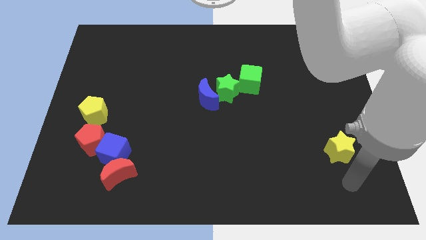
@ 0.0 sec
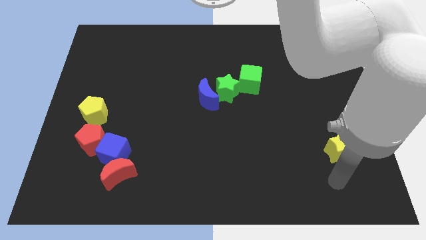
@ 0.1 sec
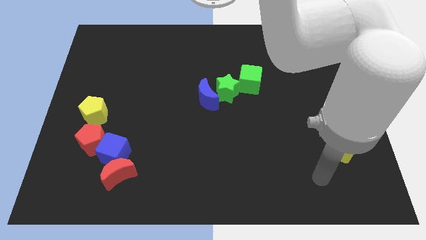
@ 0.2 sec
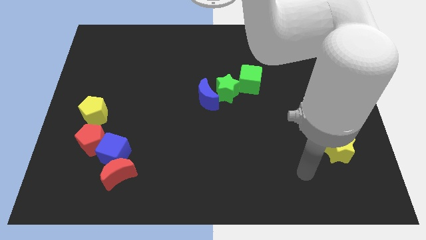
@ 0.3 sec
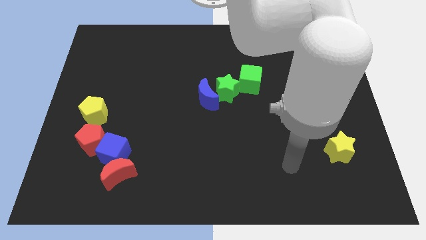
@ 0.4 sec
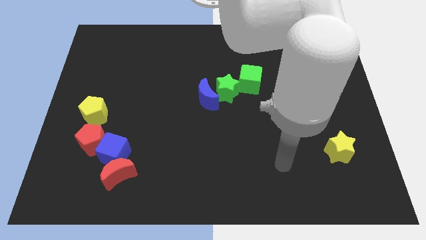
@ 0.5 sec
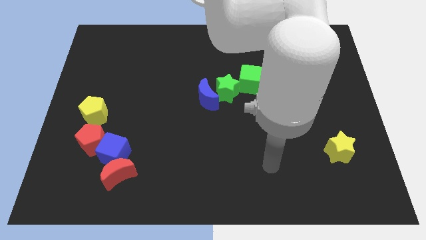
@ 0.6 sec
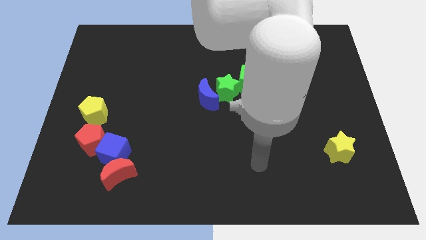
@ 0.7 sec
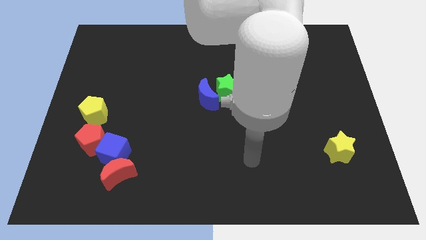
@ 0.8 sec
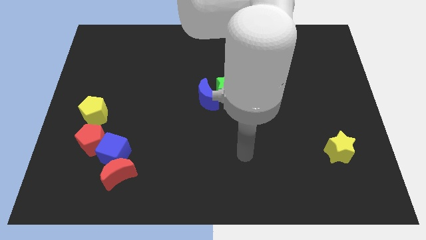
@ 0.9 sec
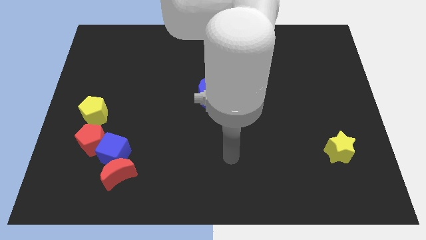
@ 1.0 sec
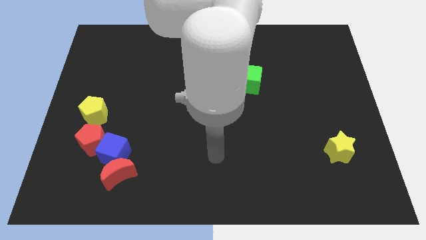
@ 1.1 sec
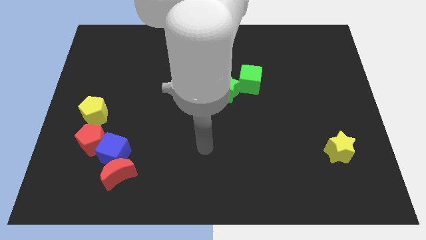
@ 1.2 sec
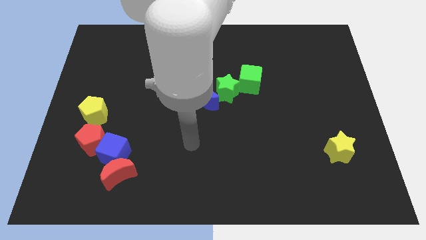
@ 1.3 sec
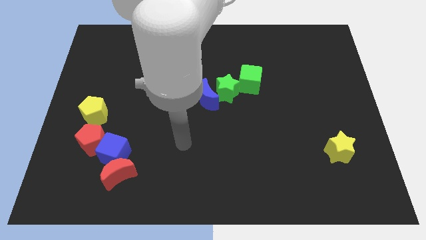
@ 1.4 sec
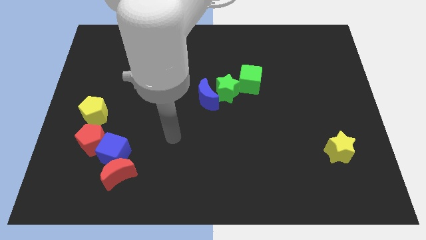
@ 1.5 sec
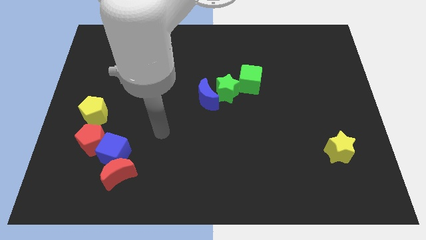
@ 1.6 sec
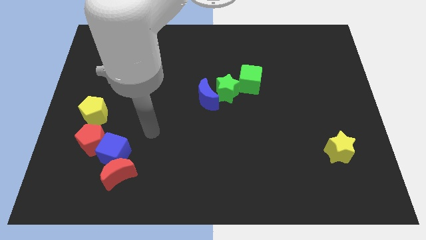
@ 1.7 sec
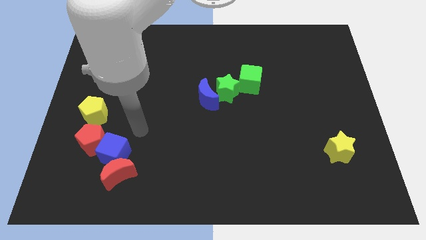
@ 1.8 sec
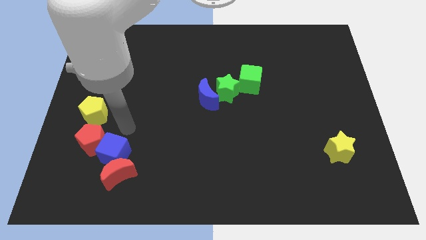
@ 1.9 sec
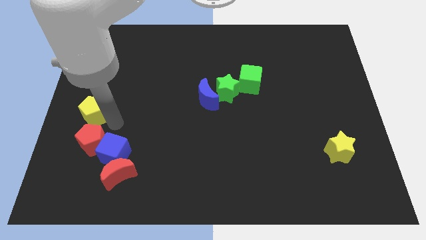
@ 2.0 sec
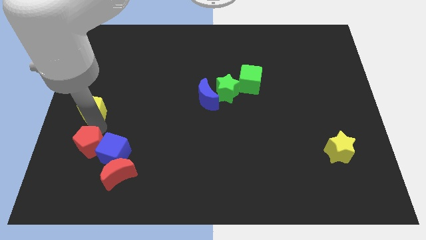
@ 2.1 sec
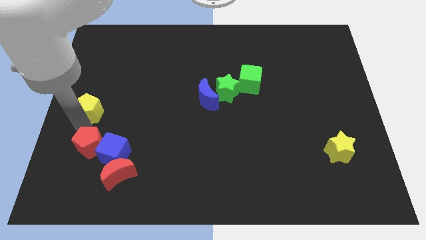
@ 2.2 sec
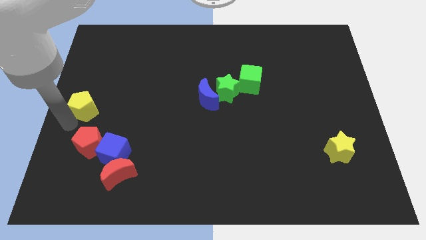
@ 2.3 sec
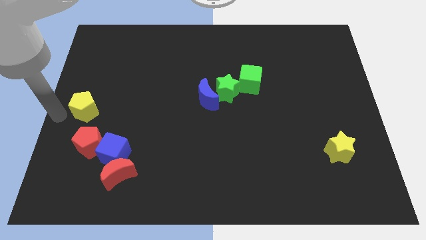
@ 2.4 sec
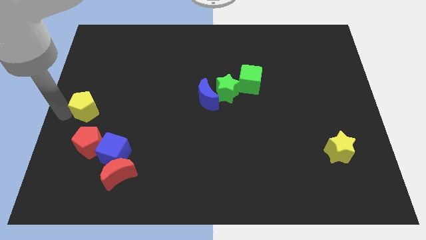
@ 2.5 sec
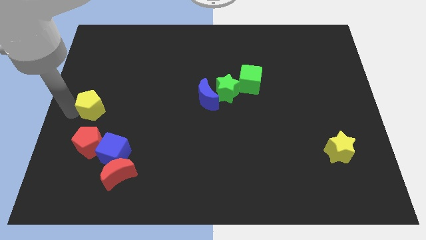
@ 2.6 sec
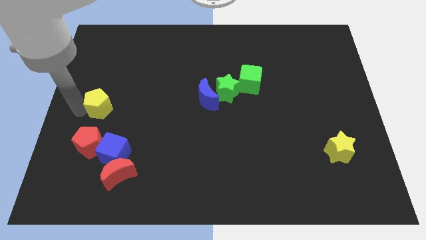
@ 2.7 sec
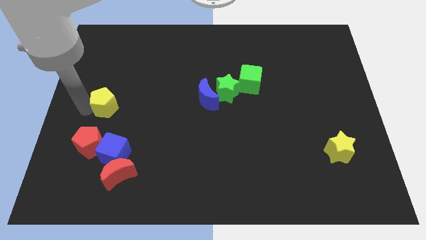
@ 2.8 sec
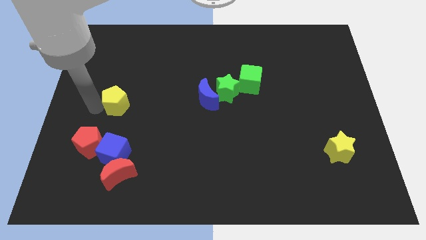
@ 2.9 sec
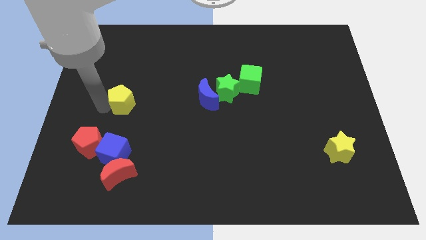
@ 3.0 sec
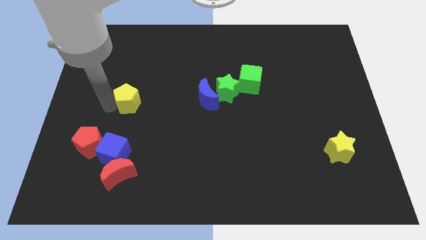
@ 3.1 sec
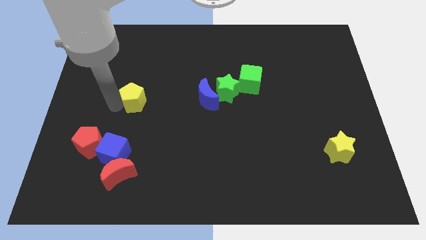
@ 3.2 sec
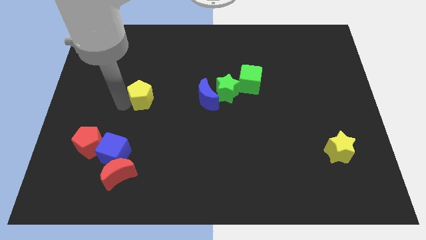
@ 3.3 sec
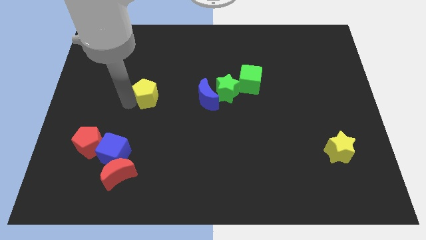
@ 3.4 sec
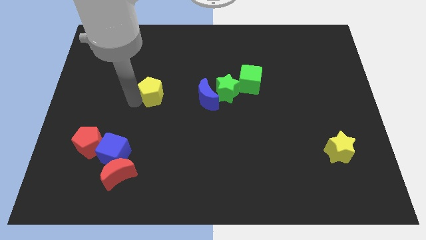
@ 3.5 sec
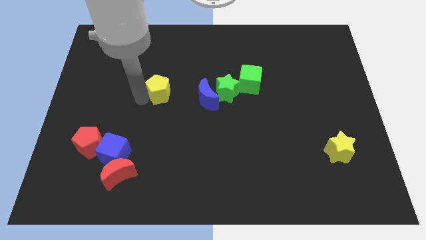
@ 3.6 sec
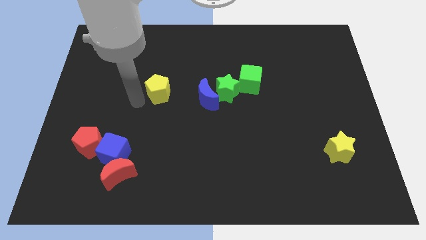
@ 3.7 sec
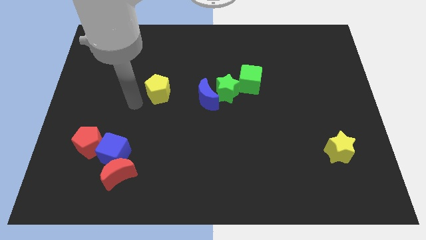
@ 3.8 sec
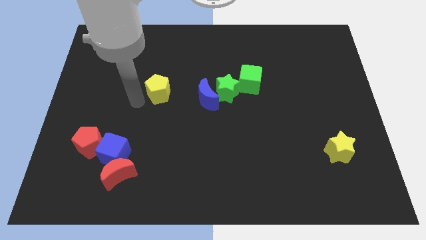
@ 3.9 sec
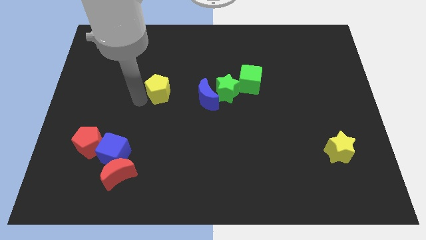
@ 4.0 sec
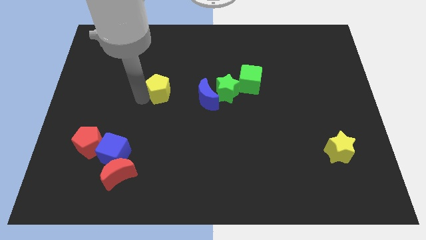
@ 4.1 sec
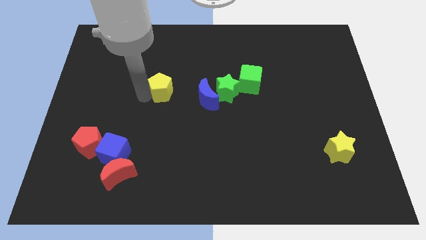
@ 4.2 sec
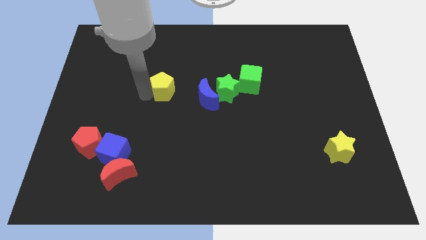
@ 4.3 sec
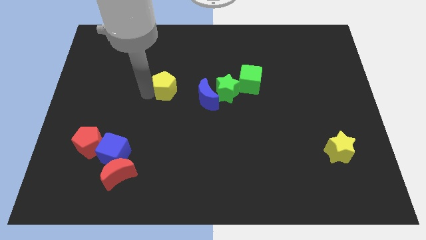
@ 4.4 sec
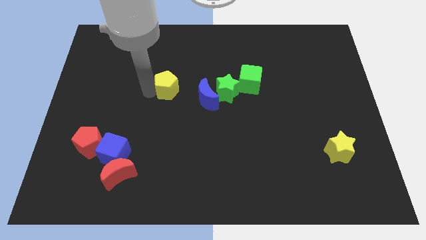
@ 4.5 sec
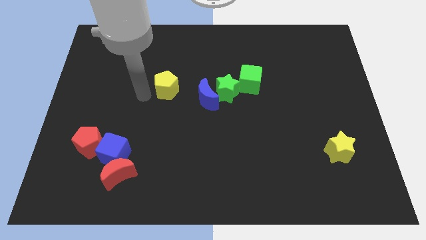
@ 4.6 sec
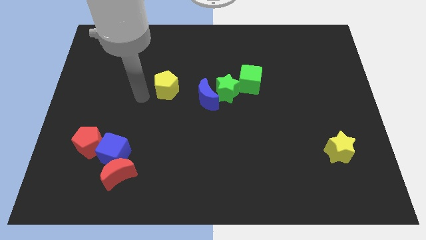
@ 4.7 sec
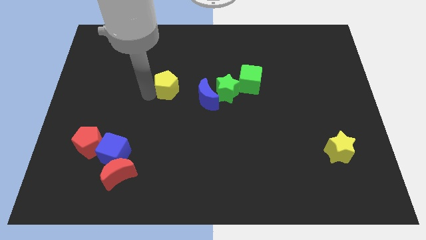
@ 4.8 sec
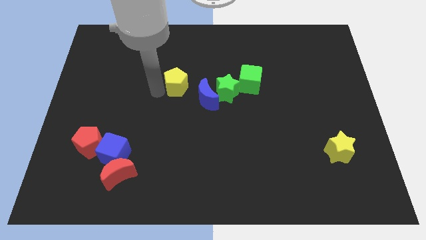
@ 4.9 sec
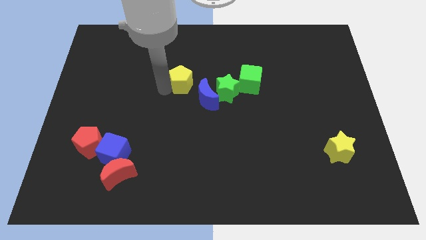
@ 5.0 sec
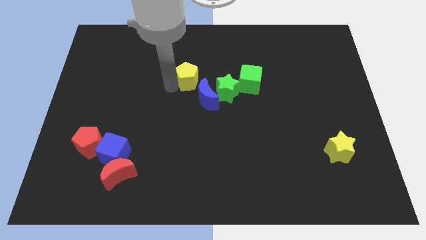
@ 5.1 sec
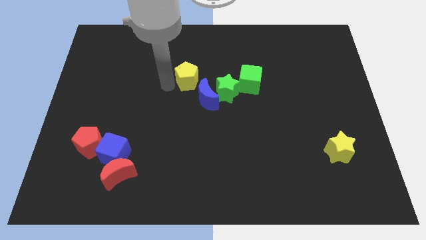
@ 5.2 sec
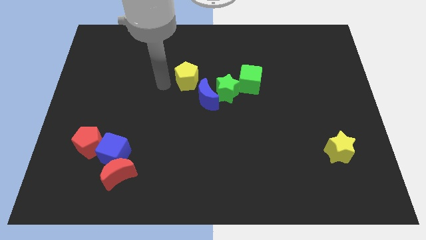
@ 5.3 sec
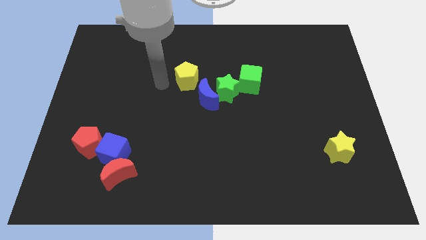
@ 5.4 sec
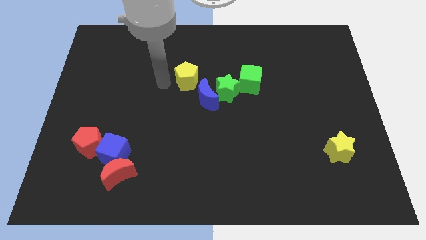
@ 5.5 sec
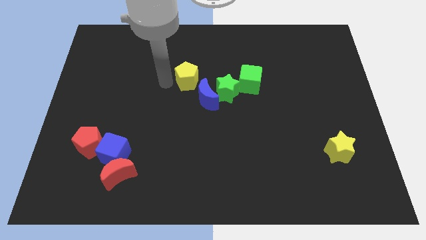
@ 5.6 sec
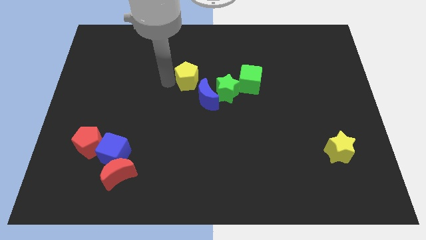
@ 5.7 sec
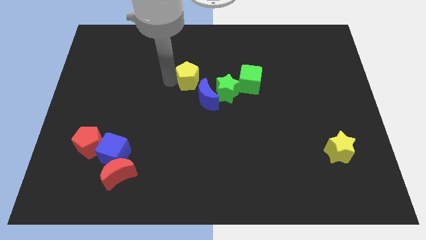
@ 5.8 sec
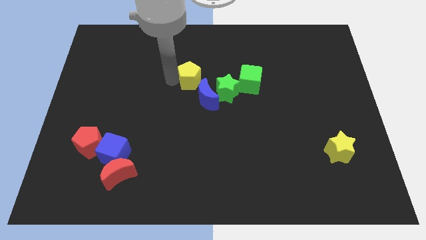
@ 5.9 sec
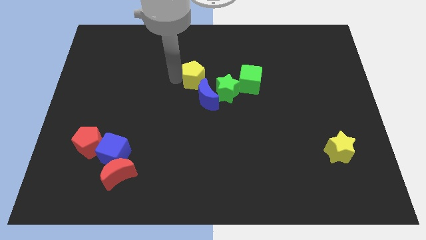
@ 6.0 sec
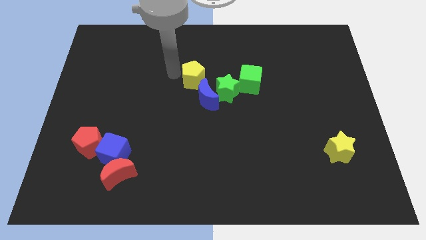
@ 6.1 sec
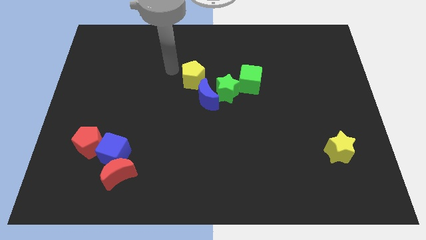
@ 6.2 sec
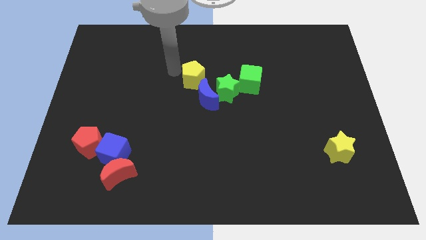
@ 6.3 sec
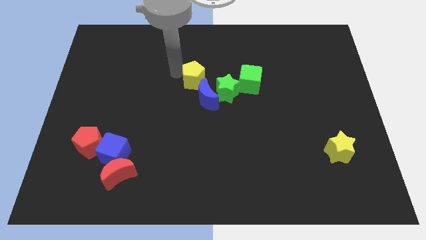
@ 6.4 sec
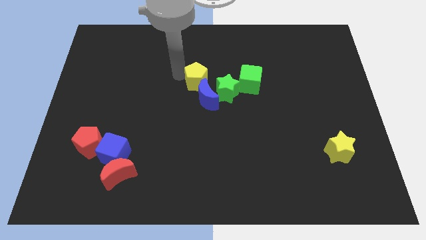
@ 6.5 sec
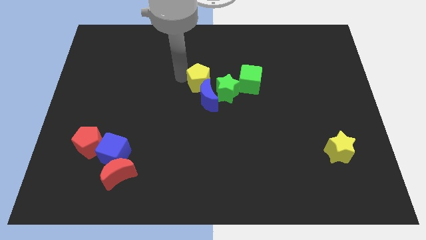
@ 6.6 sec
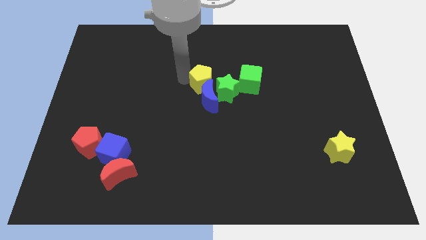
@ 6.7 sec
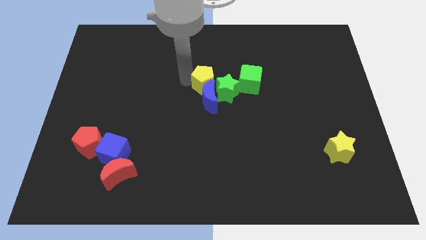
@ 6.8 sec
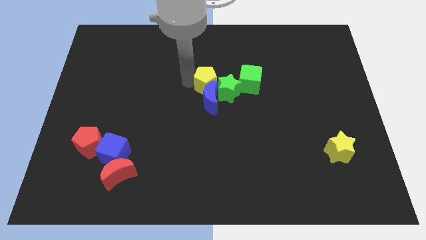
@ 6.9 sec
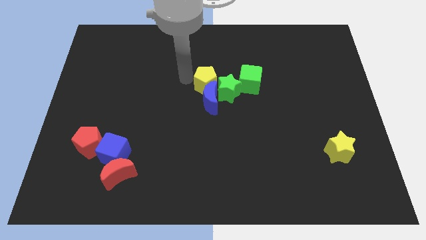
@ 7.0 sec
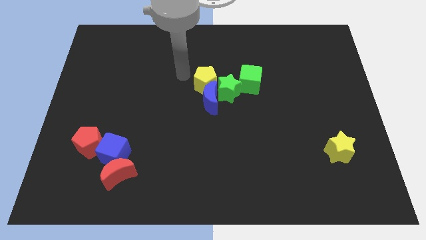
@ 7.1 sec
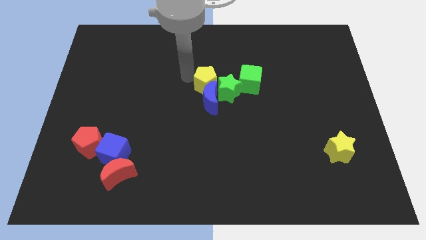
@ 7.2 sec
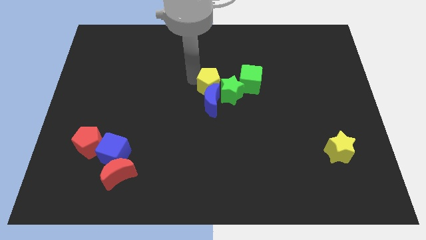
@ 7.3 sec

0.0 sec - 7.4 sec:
put the yellow pentagon close to the green star
